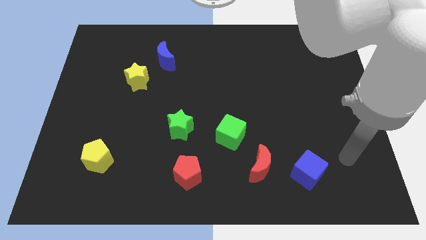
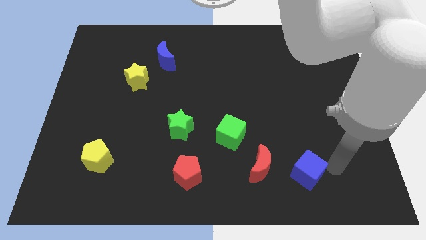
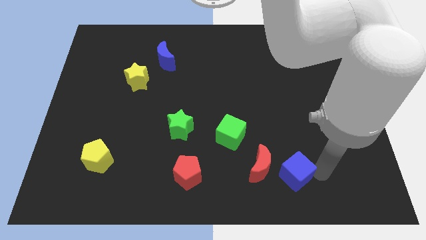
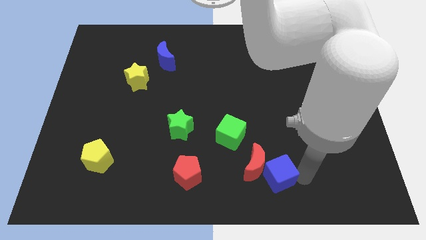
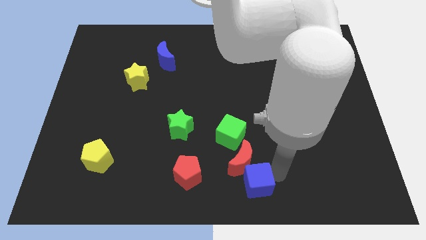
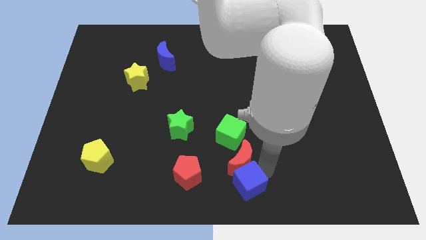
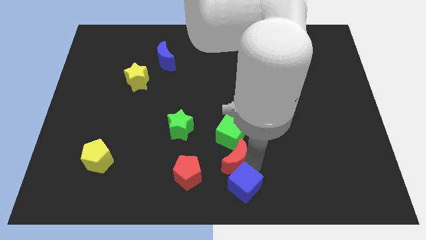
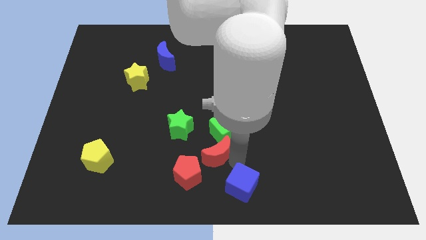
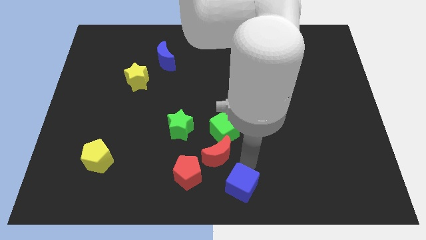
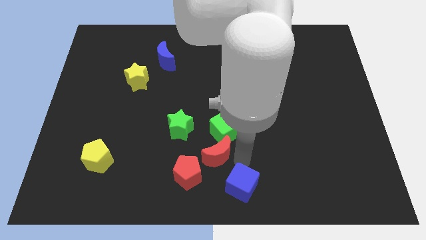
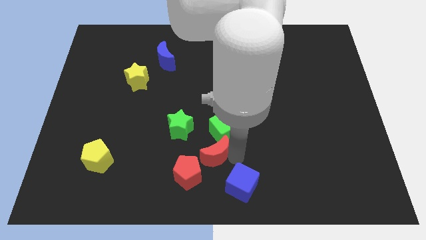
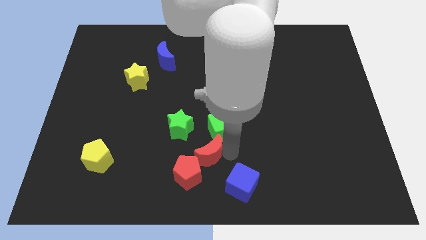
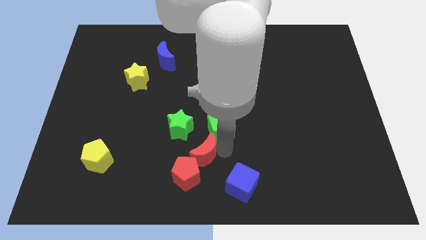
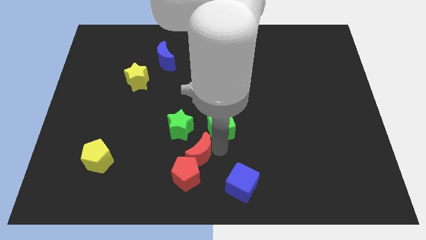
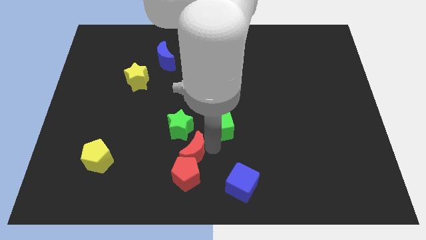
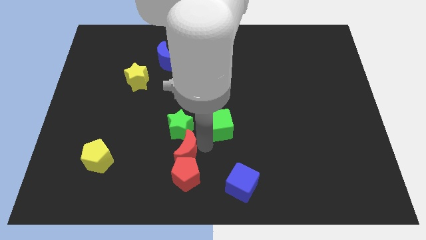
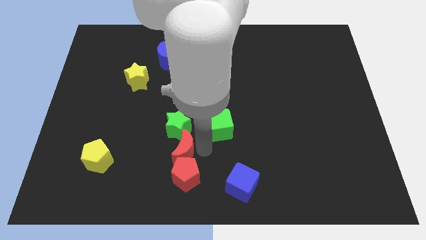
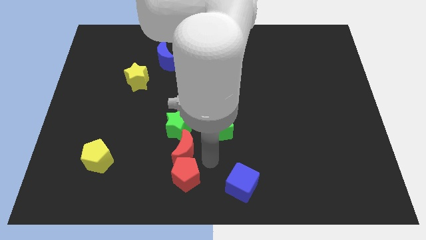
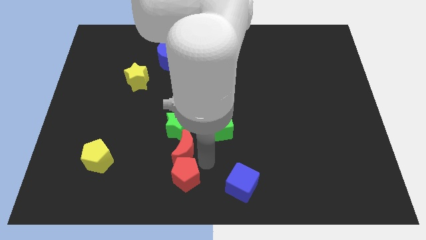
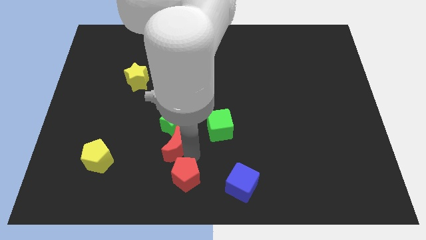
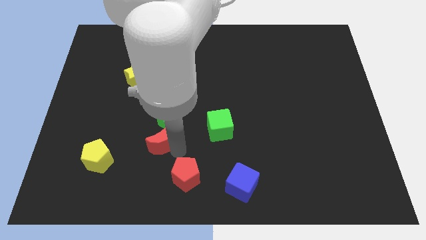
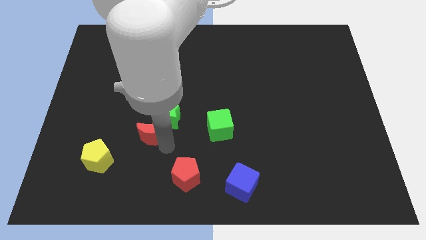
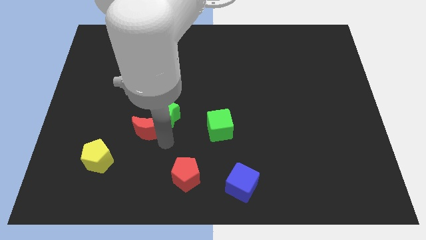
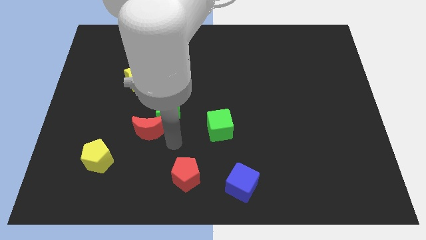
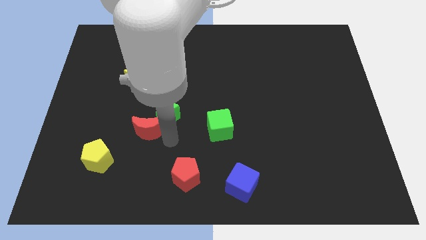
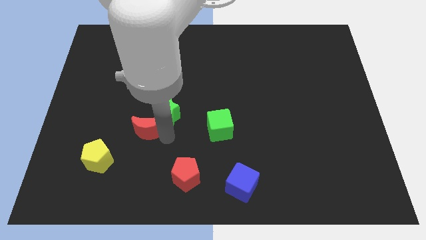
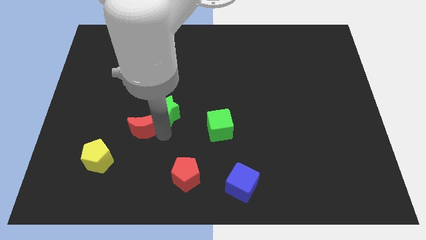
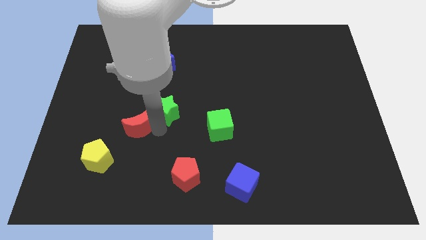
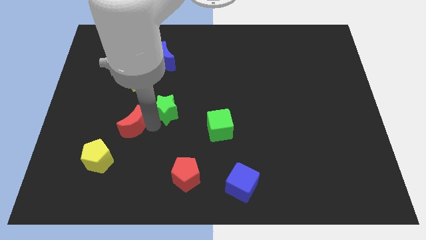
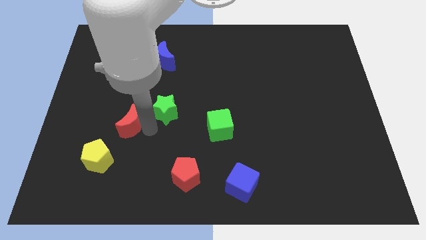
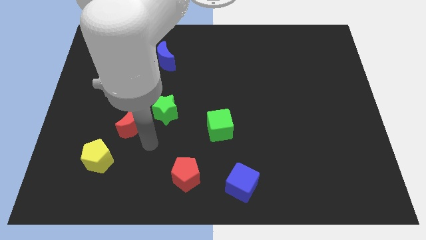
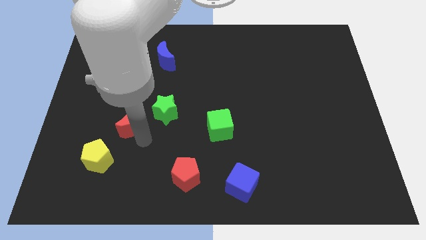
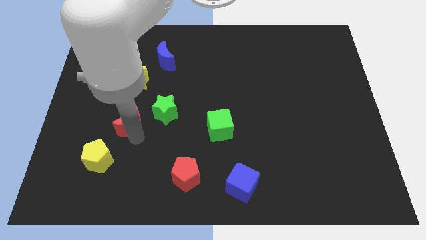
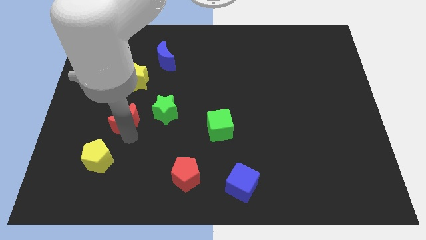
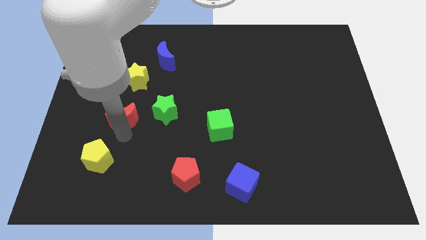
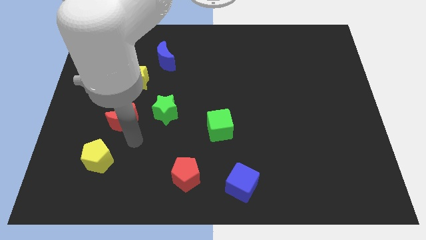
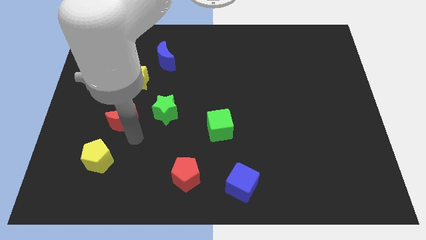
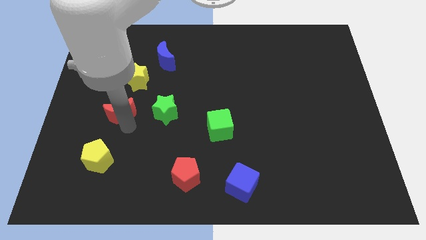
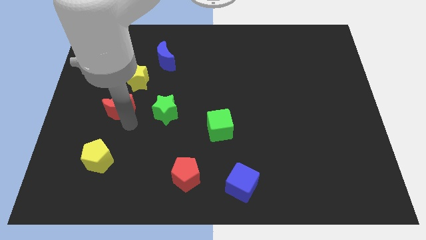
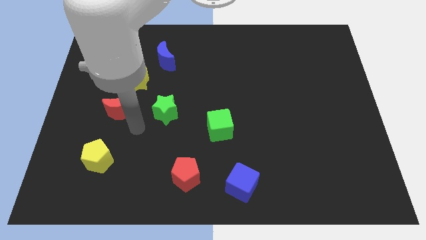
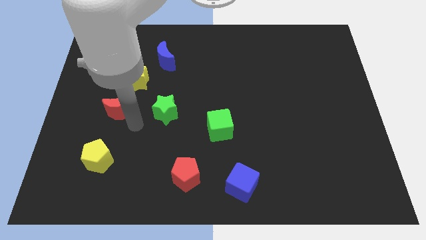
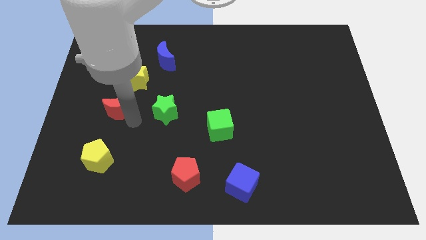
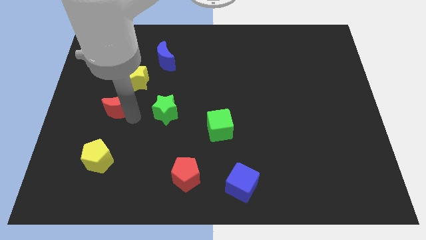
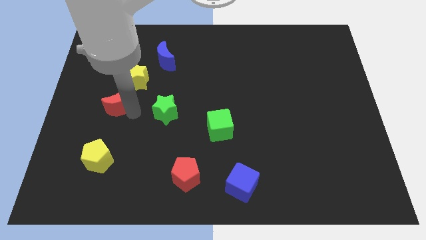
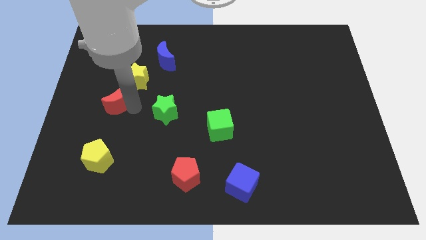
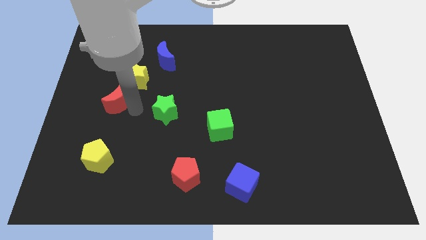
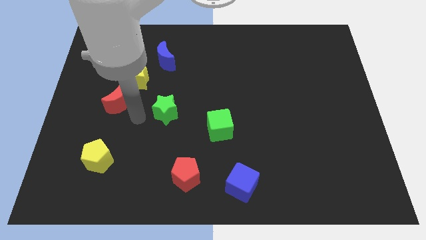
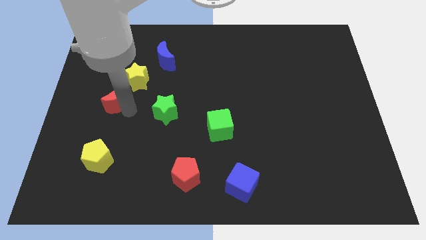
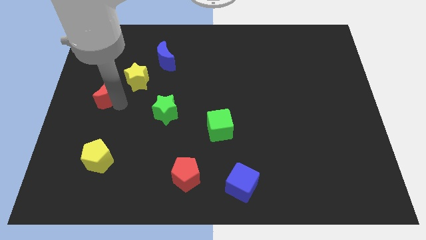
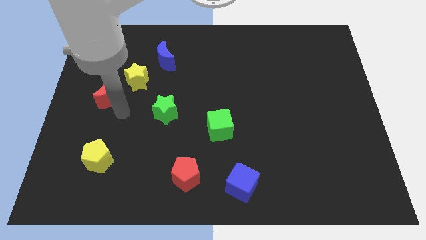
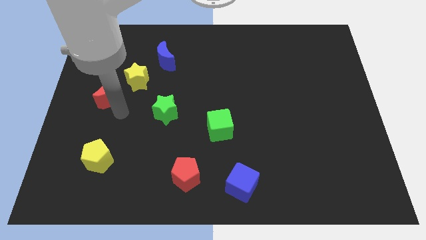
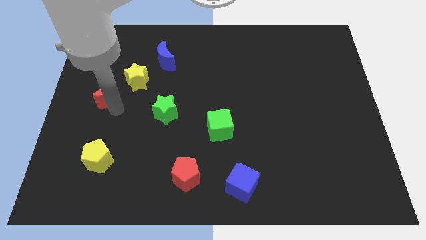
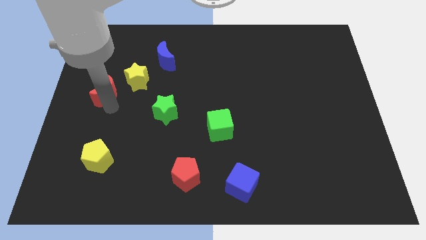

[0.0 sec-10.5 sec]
put the red moon to the left side of the yellow star

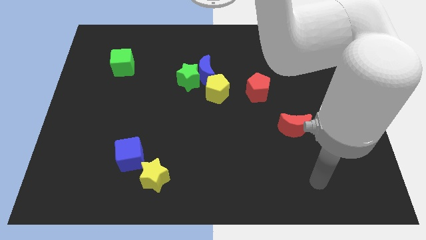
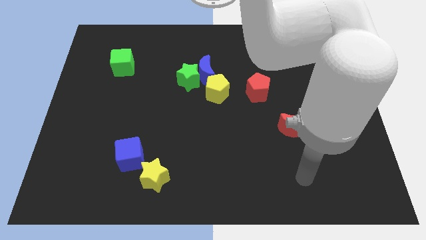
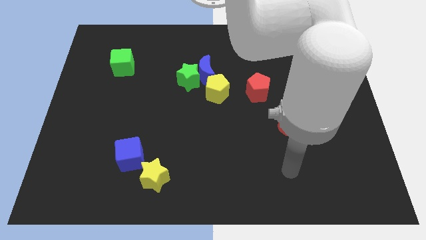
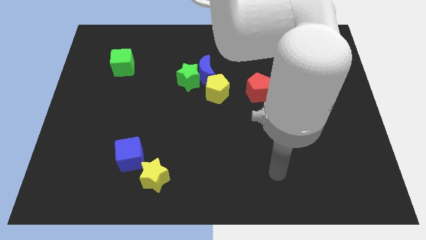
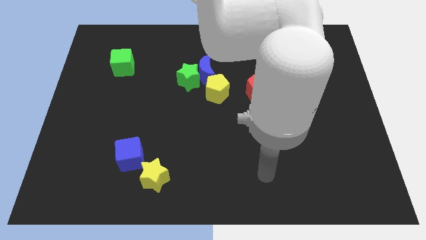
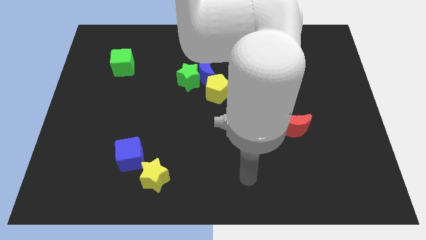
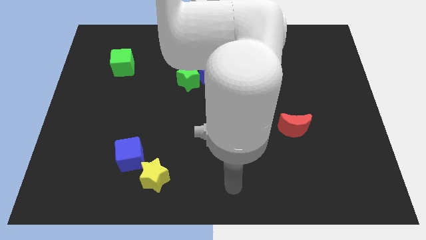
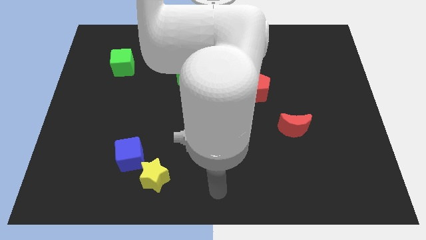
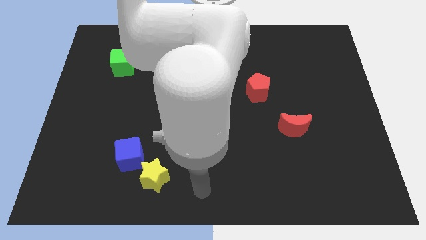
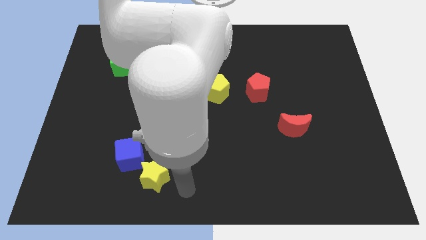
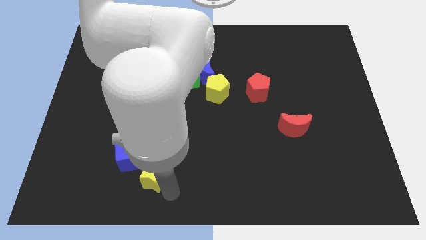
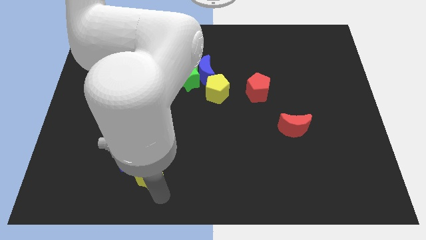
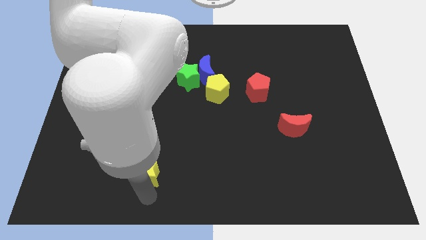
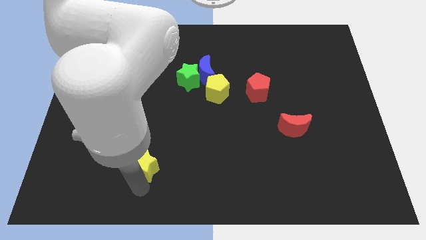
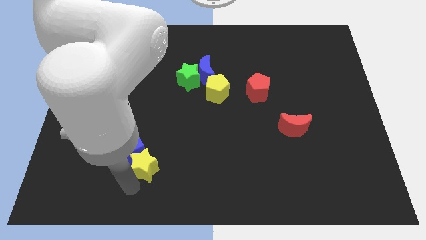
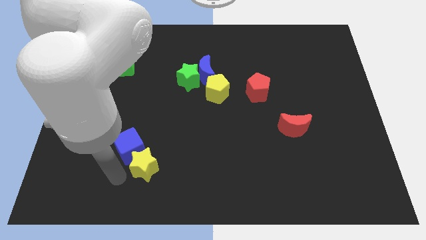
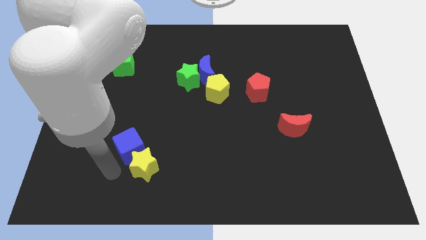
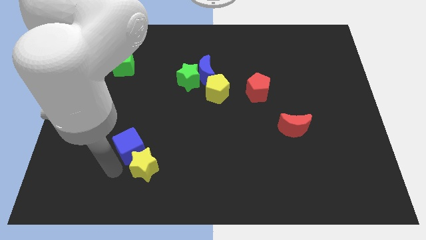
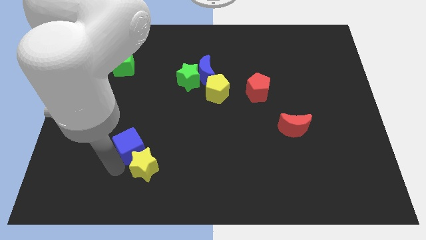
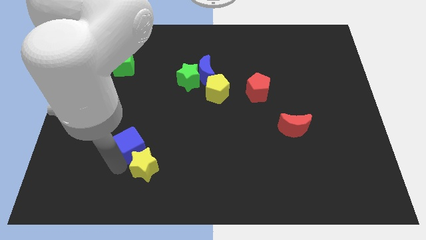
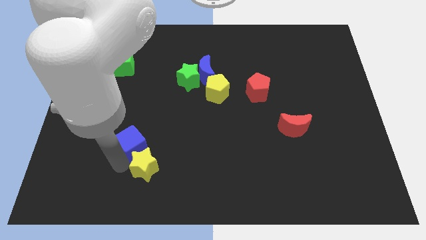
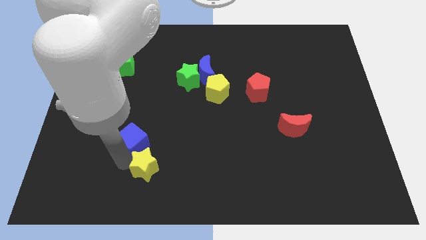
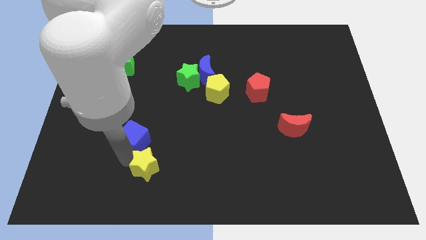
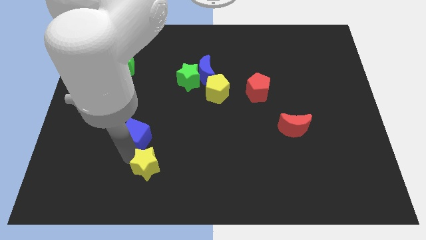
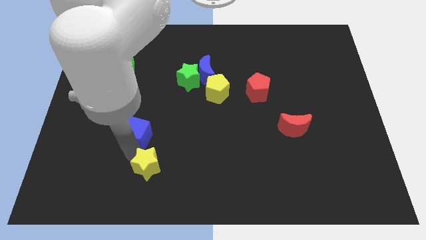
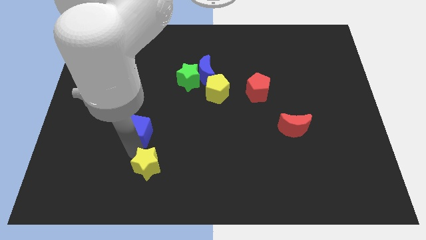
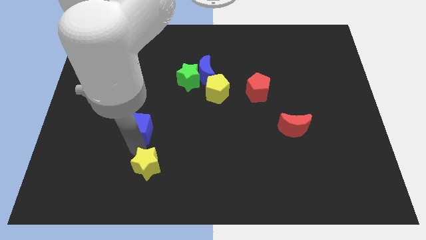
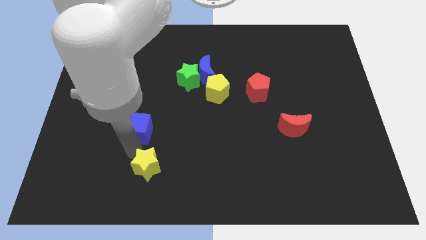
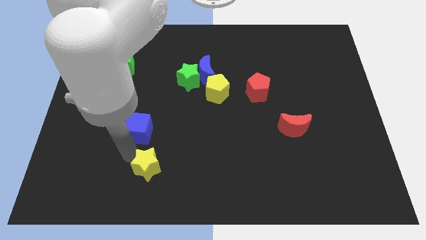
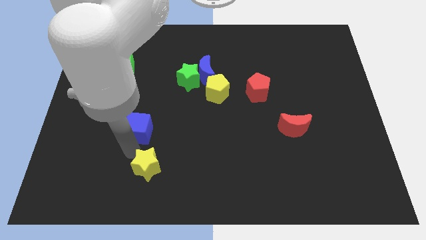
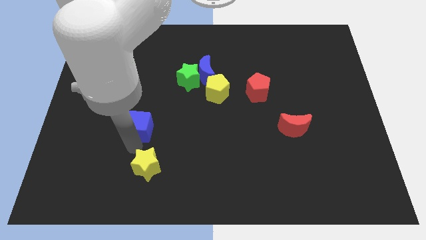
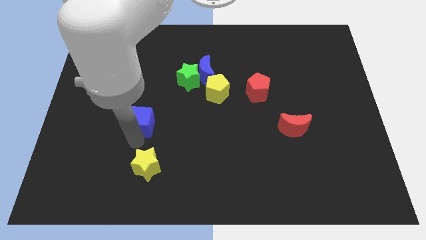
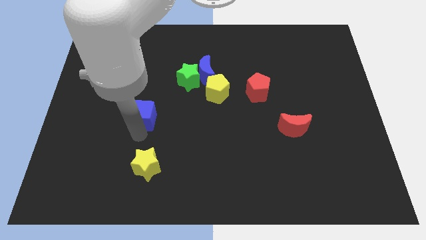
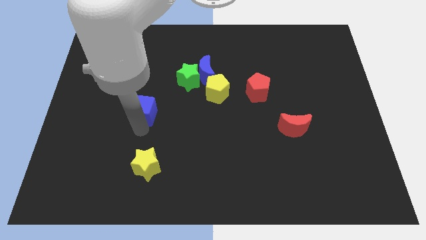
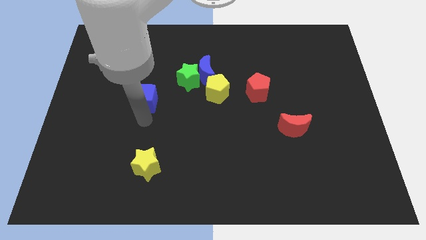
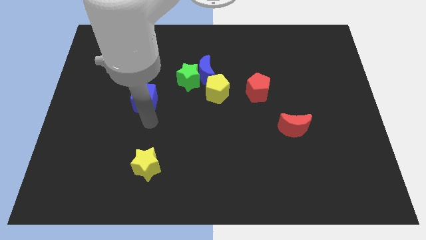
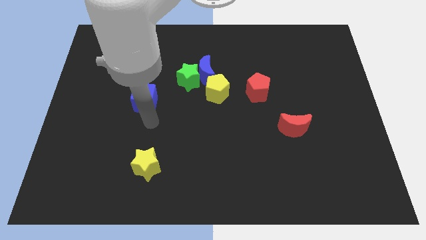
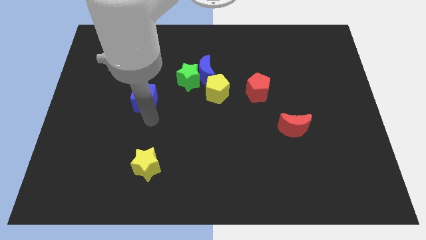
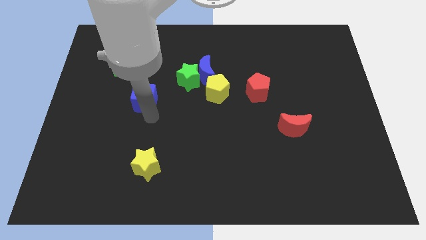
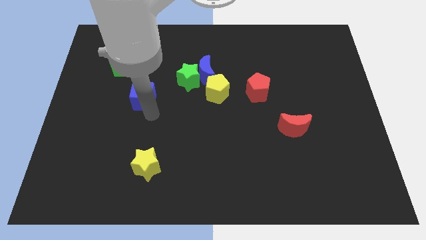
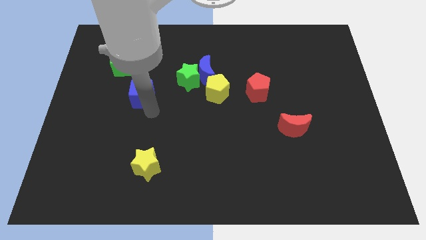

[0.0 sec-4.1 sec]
move the blue cube to the bottom right side of the green cube
